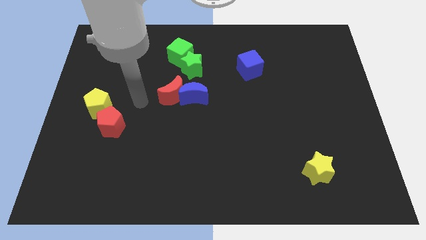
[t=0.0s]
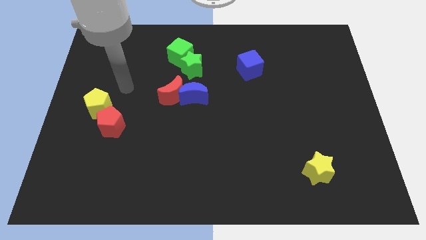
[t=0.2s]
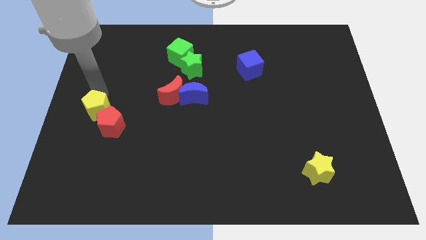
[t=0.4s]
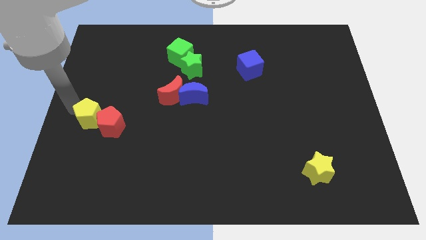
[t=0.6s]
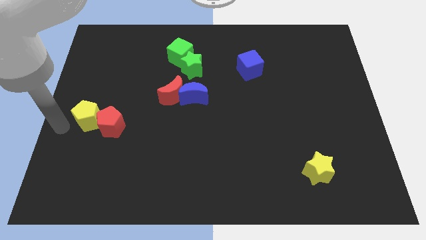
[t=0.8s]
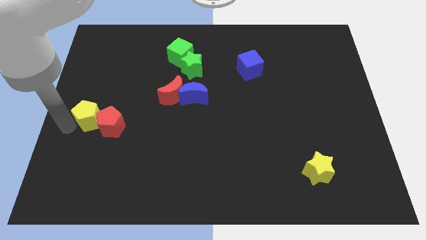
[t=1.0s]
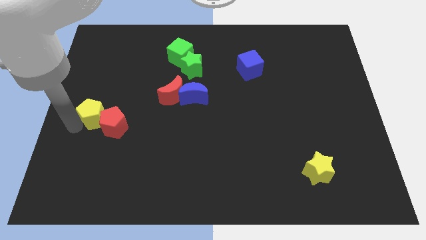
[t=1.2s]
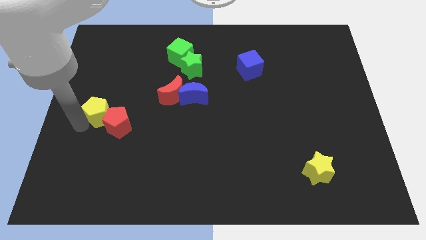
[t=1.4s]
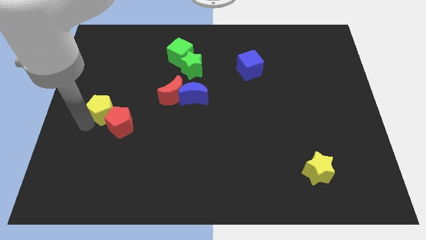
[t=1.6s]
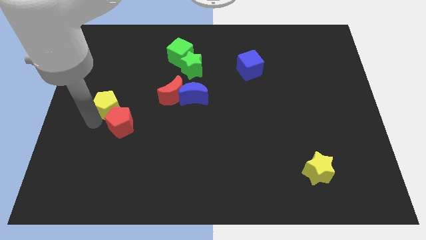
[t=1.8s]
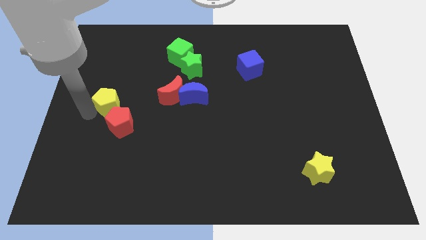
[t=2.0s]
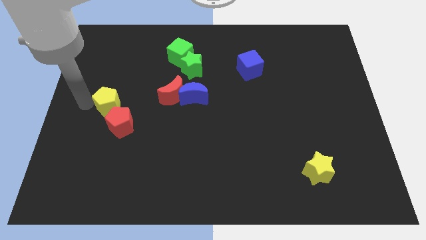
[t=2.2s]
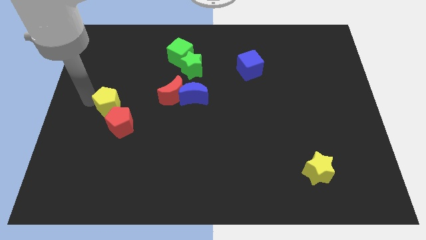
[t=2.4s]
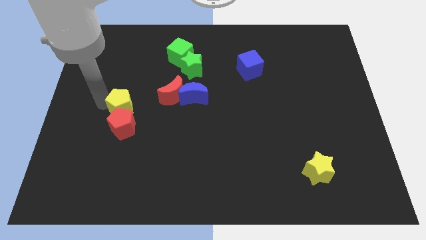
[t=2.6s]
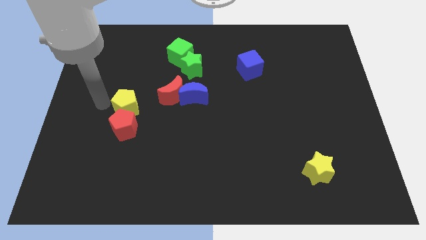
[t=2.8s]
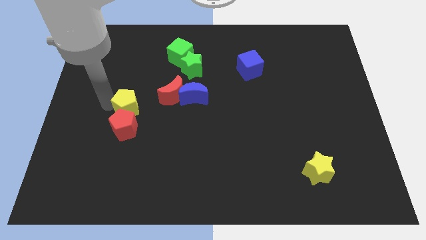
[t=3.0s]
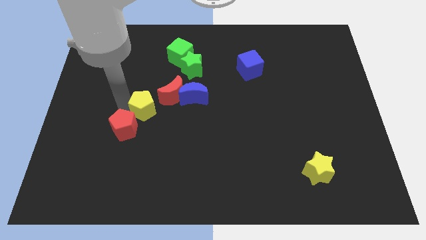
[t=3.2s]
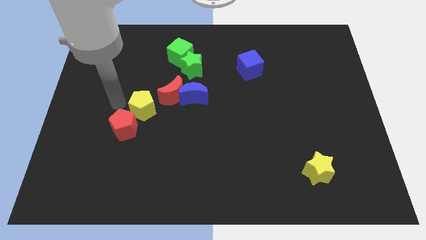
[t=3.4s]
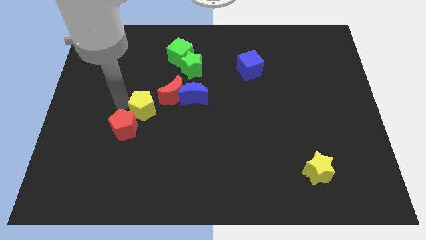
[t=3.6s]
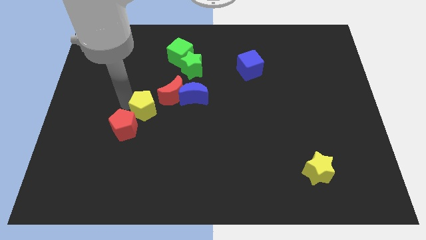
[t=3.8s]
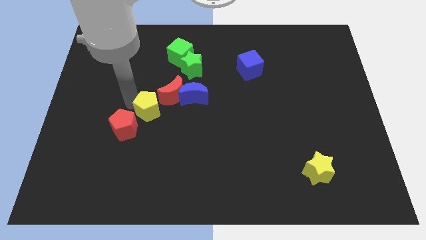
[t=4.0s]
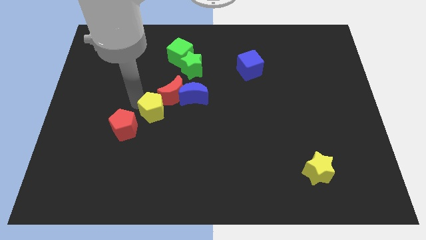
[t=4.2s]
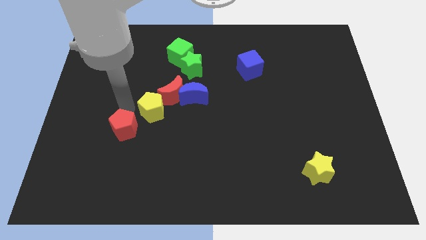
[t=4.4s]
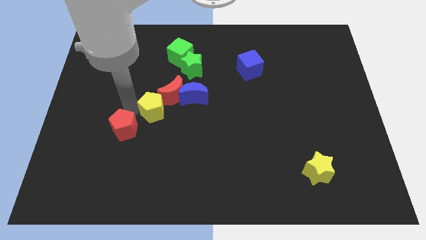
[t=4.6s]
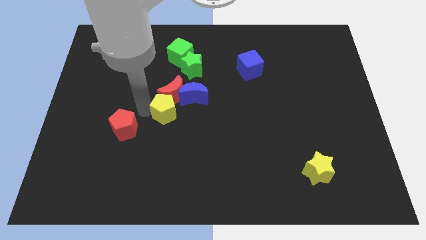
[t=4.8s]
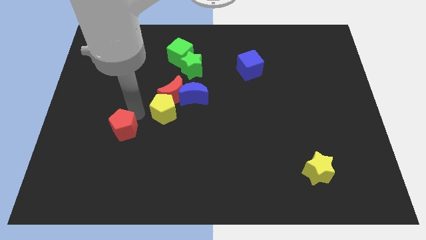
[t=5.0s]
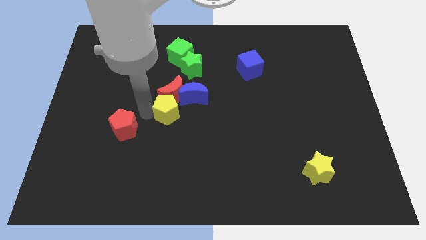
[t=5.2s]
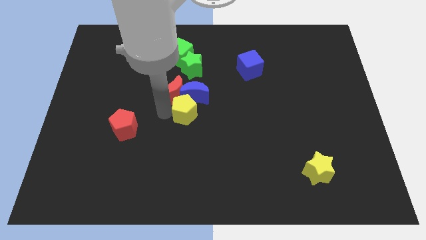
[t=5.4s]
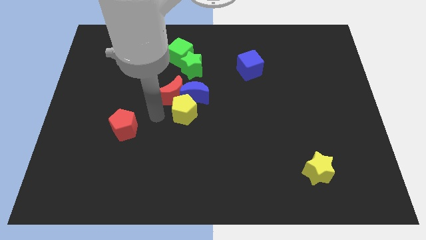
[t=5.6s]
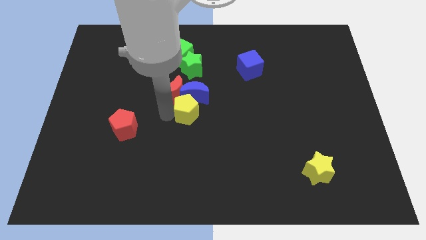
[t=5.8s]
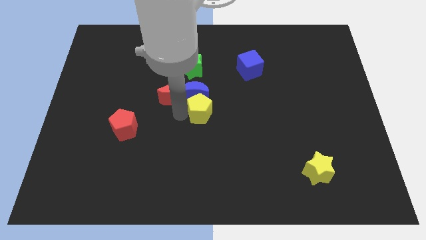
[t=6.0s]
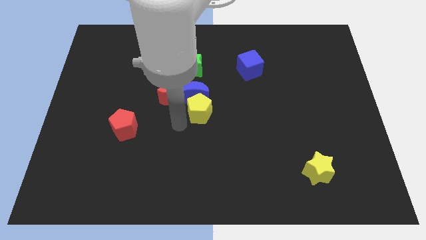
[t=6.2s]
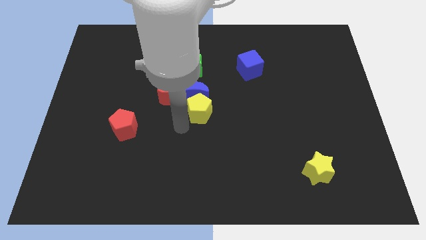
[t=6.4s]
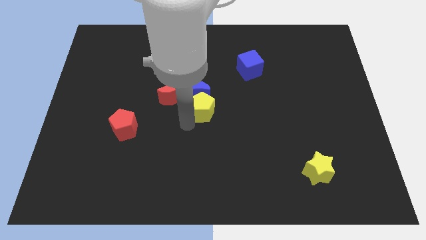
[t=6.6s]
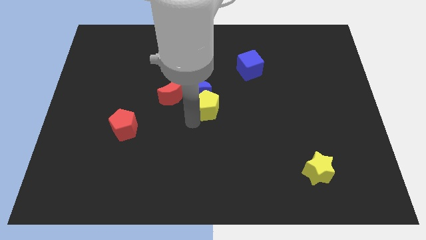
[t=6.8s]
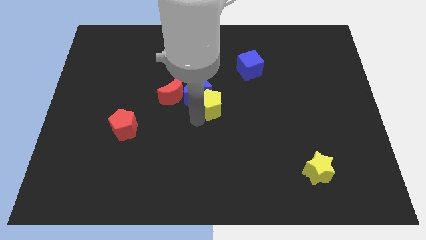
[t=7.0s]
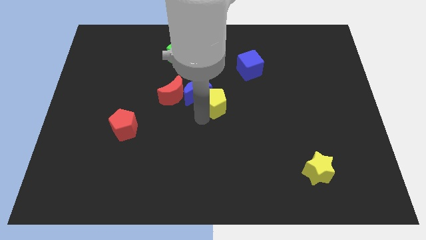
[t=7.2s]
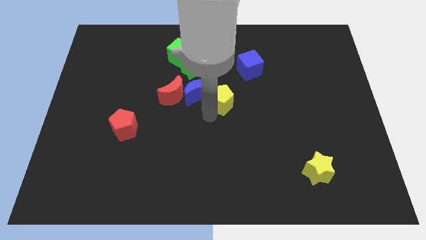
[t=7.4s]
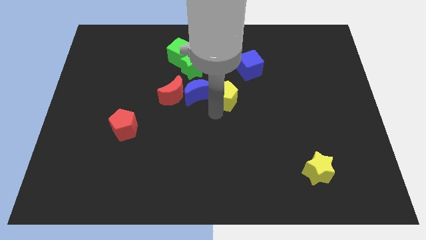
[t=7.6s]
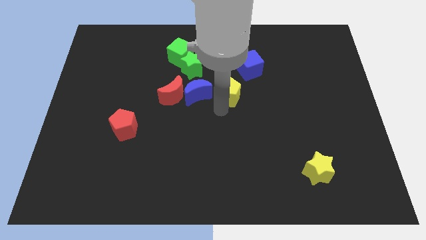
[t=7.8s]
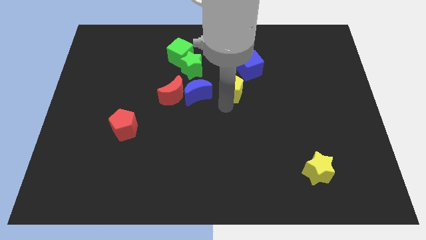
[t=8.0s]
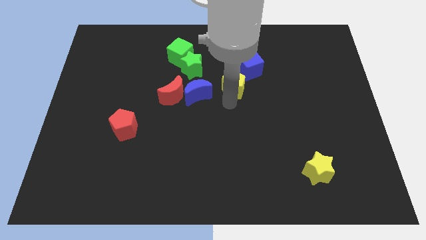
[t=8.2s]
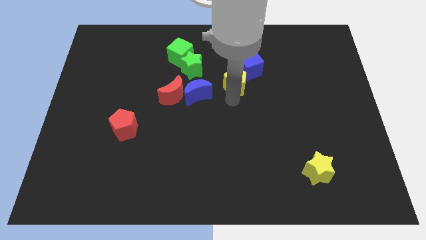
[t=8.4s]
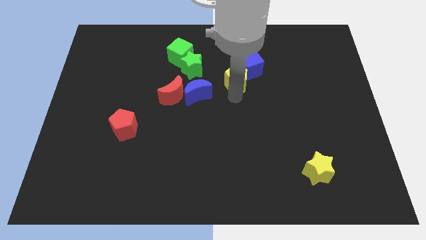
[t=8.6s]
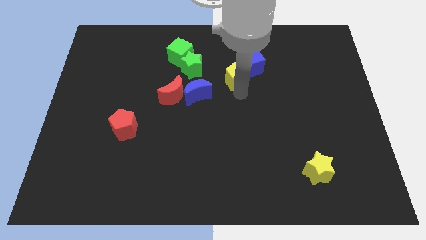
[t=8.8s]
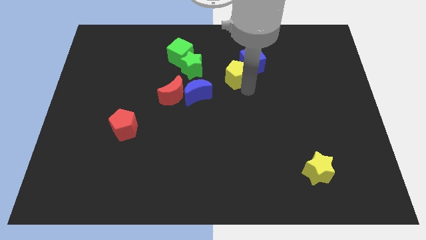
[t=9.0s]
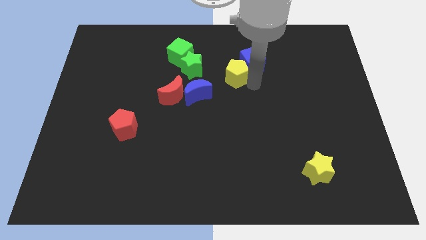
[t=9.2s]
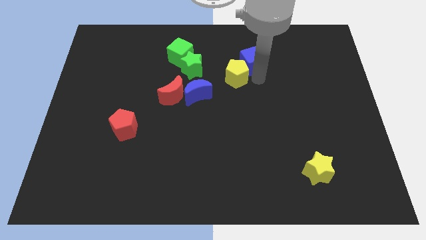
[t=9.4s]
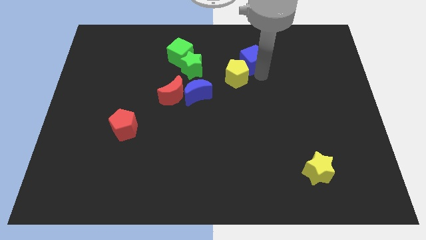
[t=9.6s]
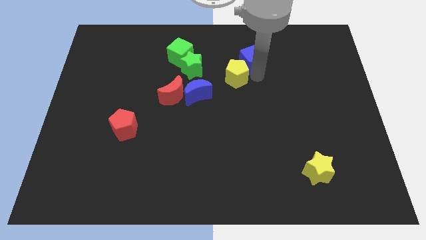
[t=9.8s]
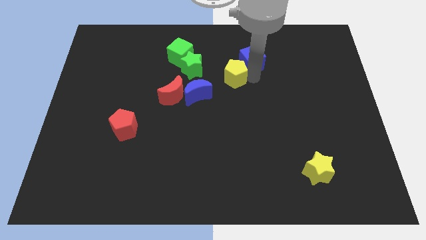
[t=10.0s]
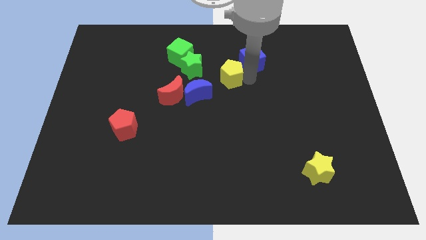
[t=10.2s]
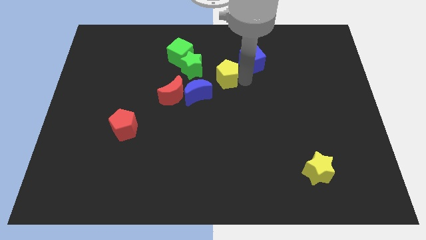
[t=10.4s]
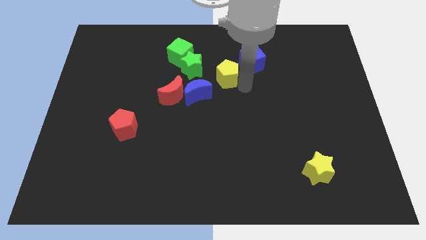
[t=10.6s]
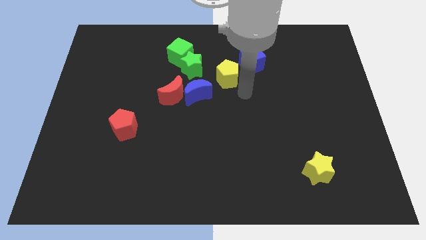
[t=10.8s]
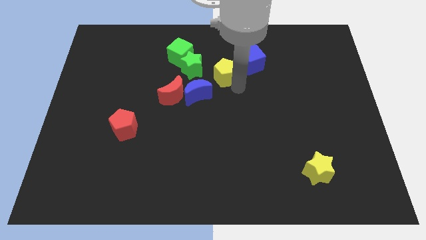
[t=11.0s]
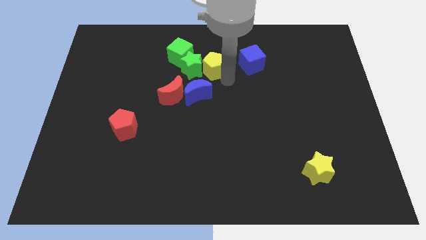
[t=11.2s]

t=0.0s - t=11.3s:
push the yellow pentagon to the top side of the blue moon

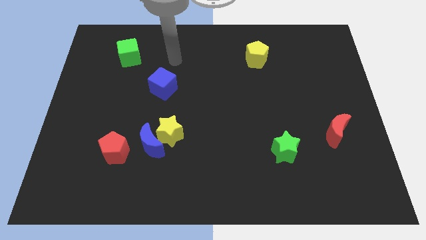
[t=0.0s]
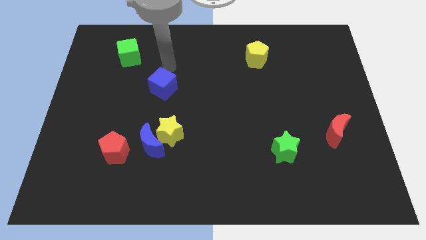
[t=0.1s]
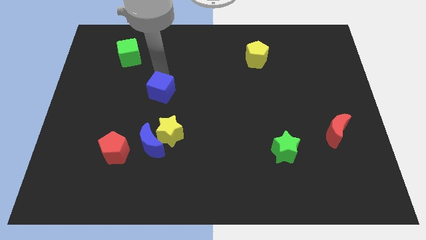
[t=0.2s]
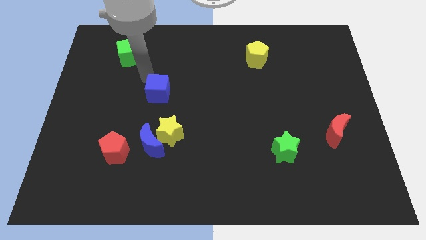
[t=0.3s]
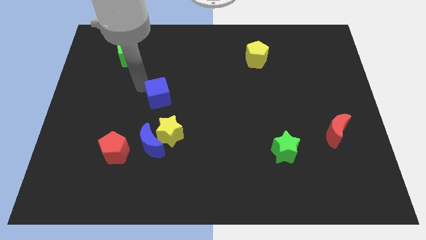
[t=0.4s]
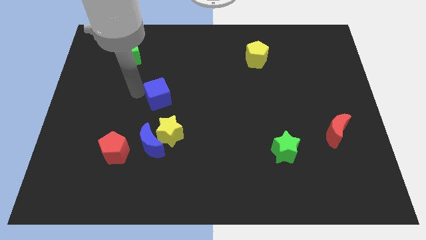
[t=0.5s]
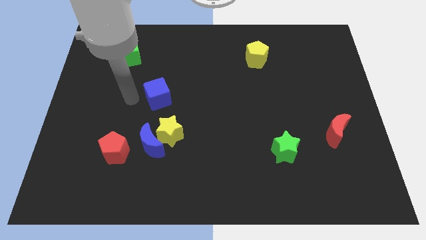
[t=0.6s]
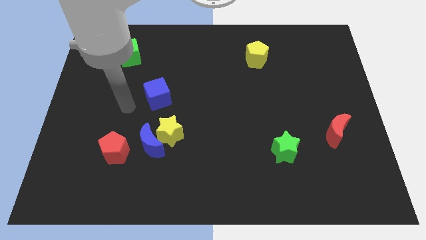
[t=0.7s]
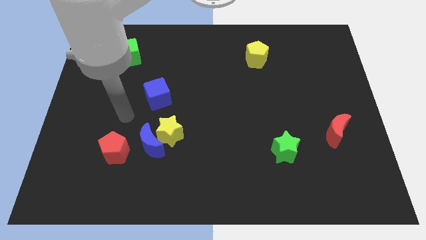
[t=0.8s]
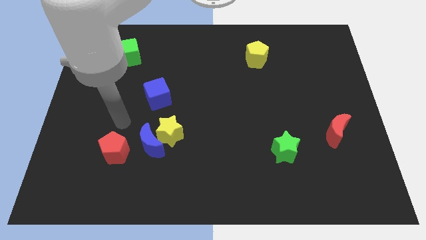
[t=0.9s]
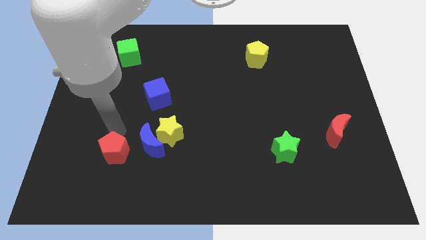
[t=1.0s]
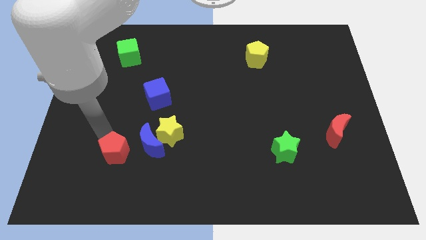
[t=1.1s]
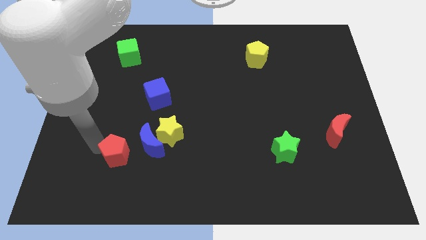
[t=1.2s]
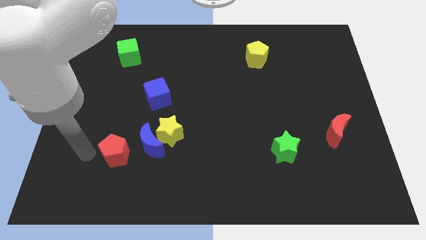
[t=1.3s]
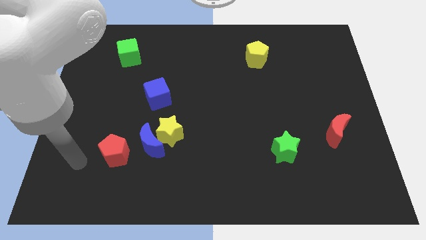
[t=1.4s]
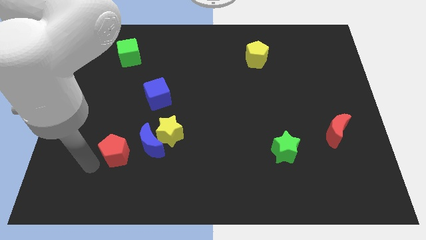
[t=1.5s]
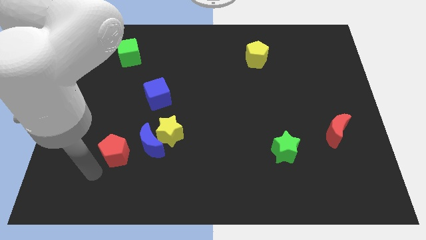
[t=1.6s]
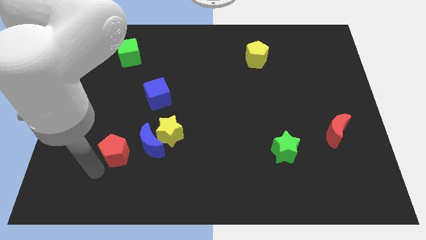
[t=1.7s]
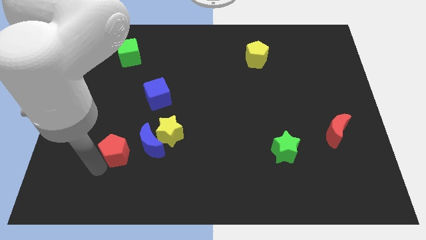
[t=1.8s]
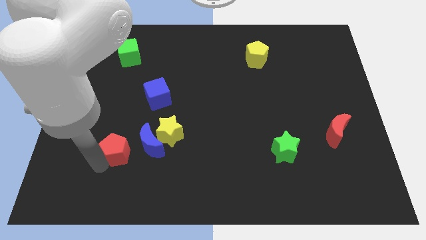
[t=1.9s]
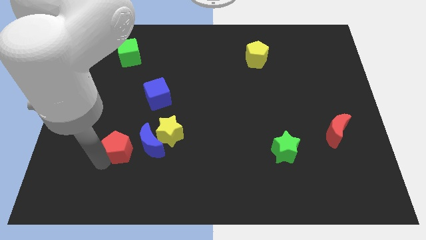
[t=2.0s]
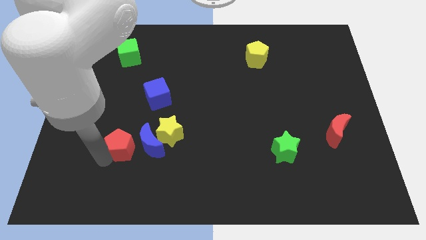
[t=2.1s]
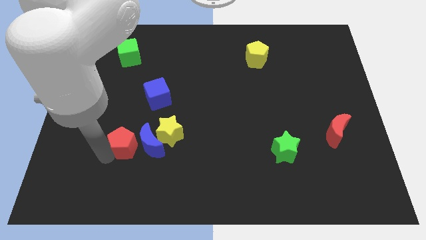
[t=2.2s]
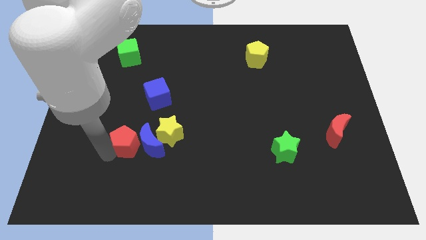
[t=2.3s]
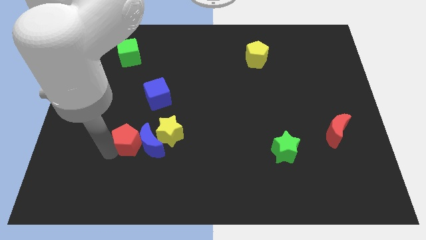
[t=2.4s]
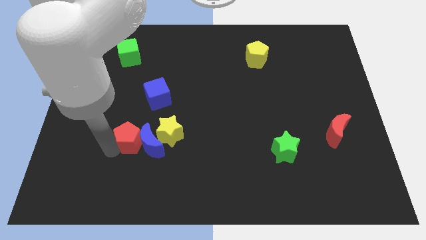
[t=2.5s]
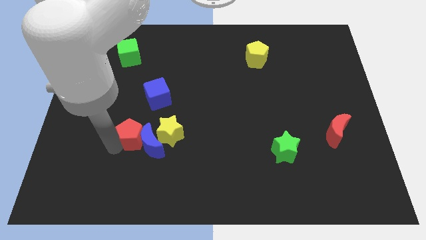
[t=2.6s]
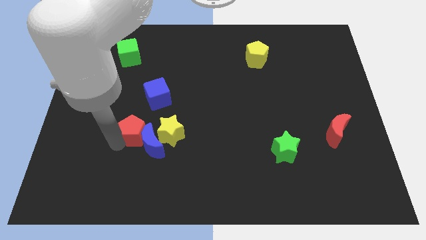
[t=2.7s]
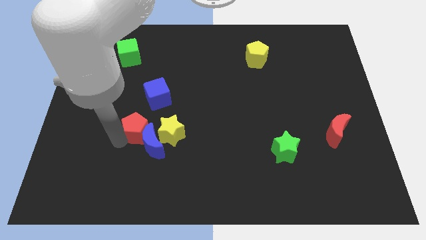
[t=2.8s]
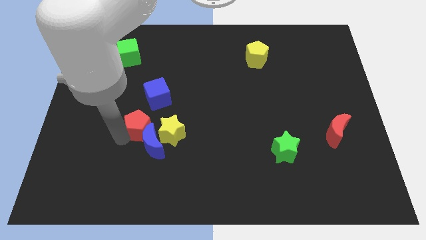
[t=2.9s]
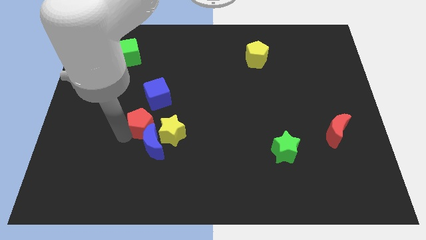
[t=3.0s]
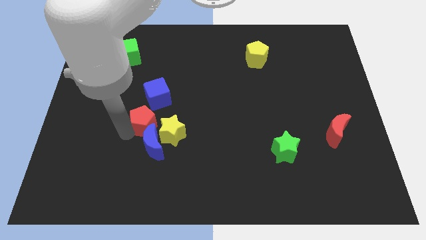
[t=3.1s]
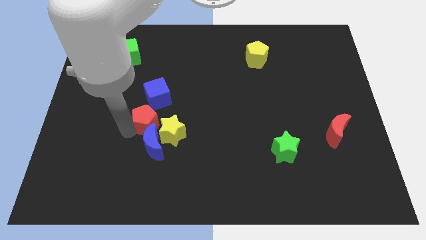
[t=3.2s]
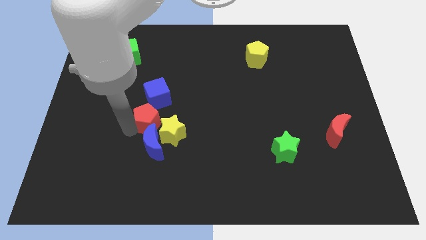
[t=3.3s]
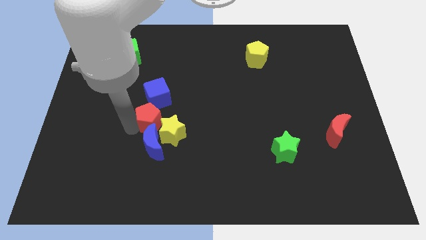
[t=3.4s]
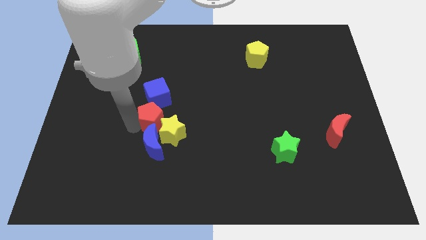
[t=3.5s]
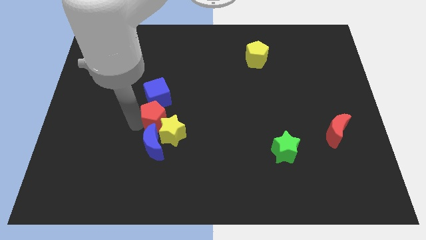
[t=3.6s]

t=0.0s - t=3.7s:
put the red pentagon diagonally down and to the right of the blue cube
